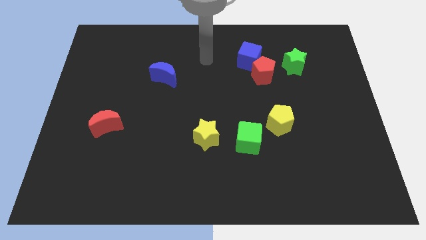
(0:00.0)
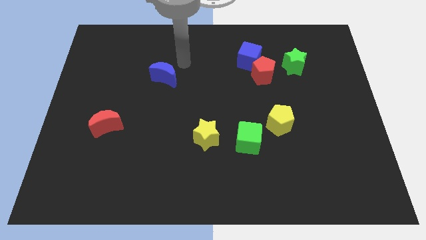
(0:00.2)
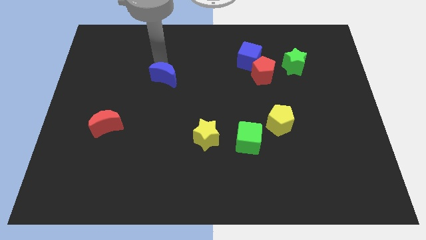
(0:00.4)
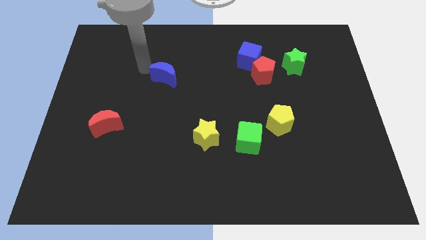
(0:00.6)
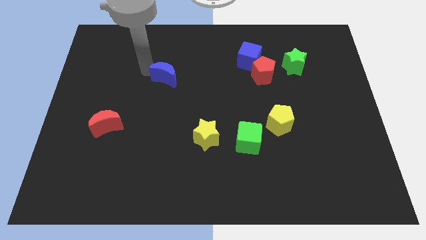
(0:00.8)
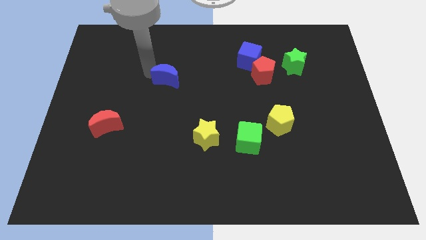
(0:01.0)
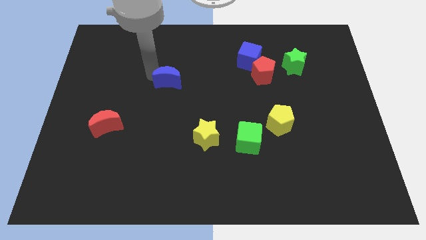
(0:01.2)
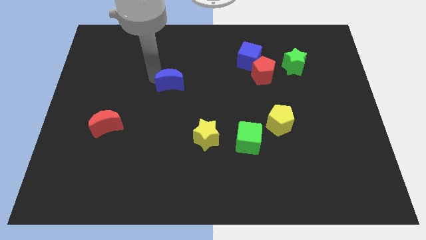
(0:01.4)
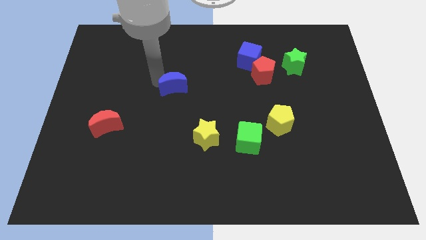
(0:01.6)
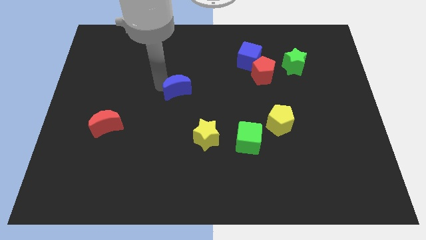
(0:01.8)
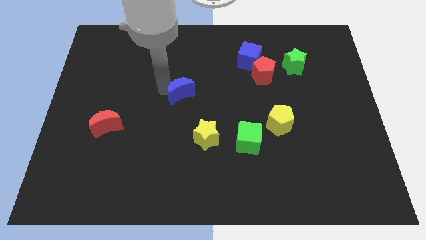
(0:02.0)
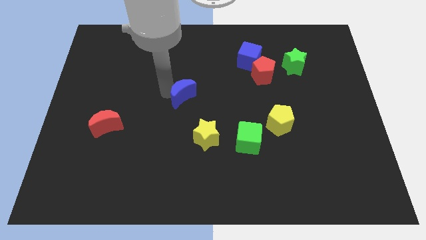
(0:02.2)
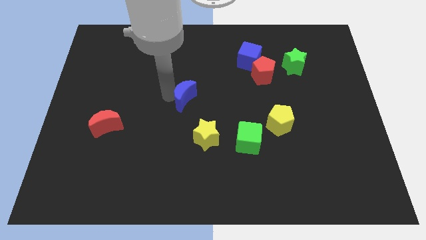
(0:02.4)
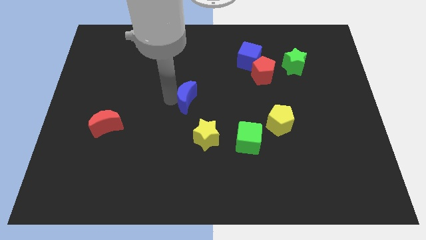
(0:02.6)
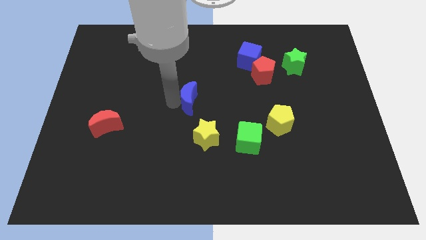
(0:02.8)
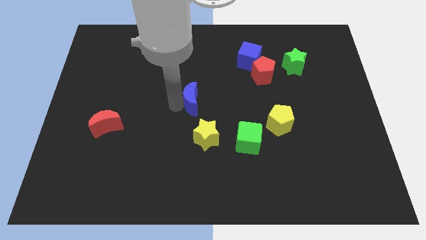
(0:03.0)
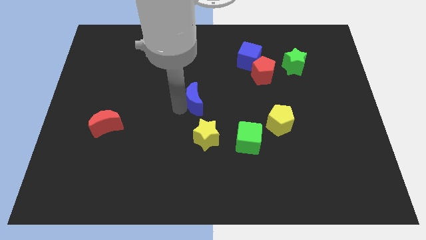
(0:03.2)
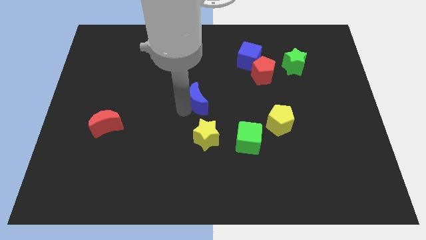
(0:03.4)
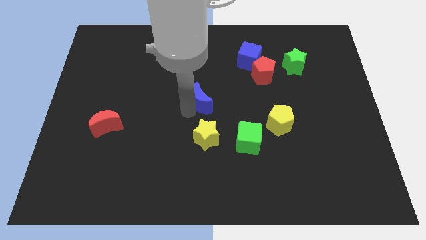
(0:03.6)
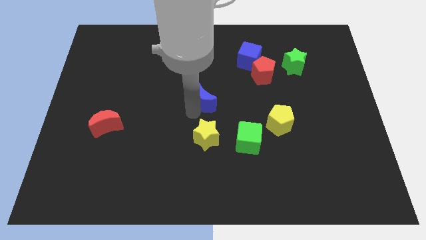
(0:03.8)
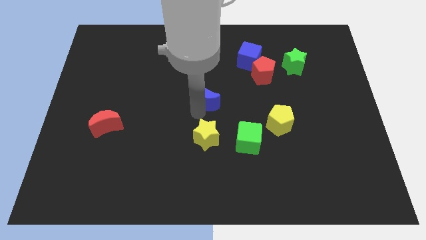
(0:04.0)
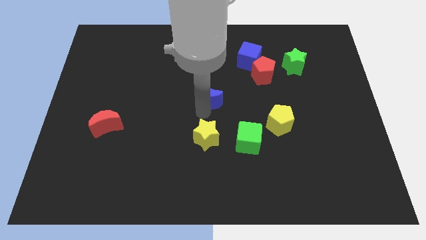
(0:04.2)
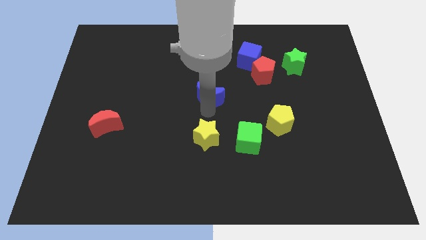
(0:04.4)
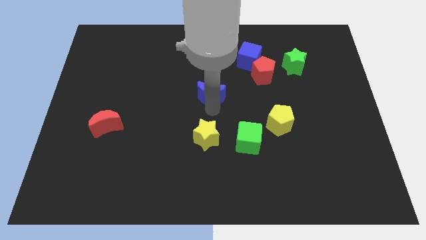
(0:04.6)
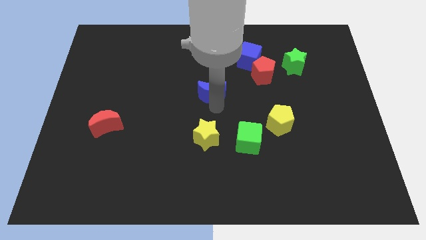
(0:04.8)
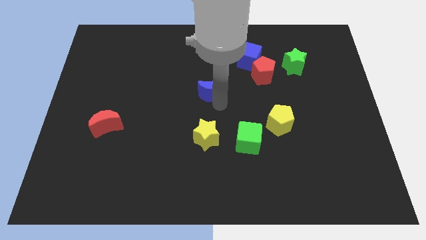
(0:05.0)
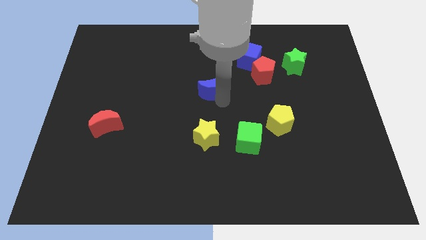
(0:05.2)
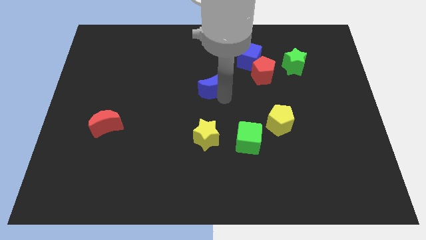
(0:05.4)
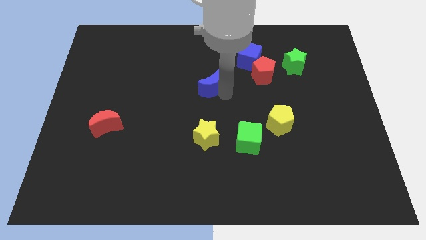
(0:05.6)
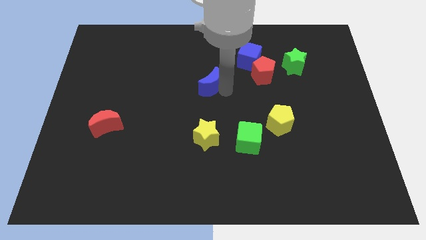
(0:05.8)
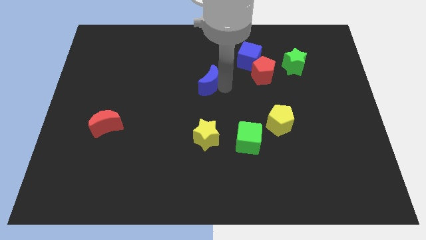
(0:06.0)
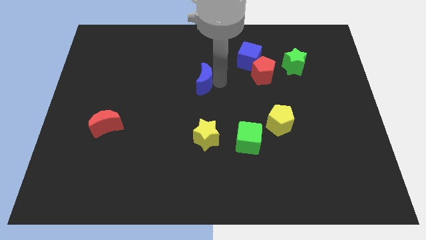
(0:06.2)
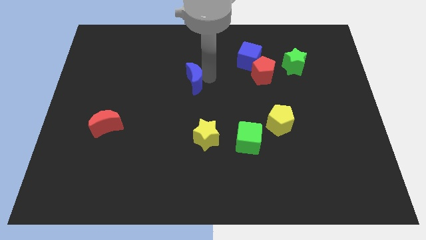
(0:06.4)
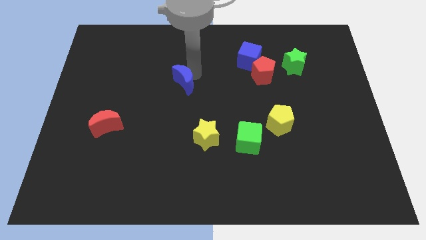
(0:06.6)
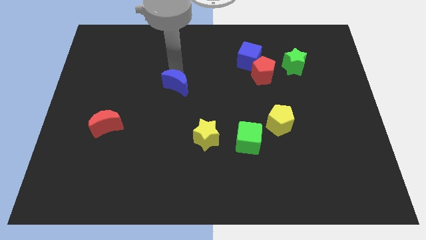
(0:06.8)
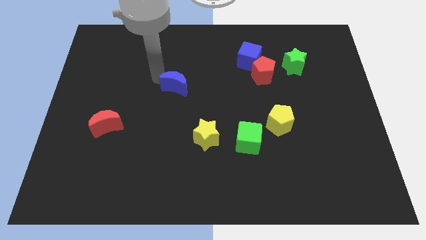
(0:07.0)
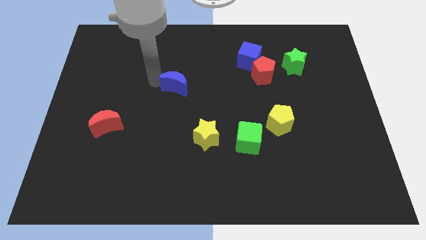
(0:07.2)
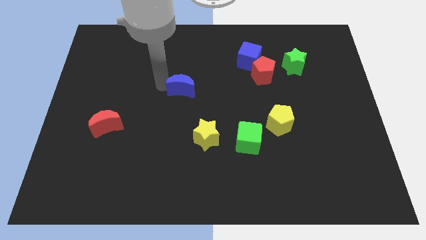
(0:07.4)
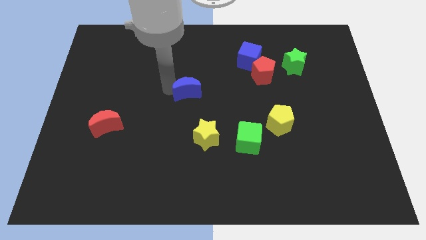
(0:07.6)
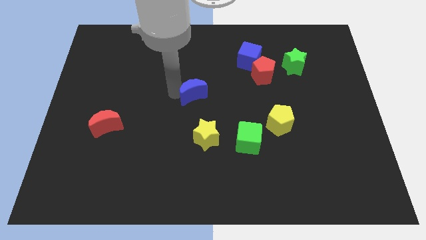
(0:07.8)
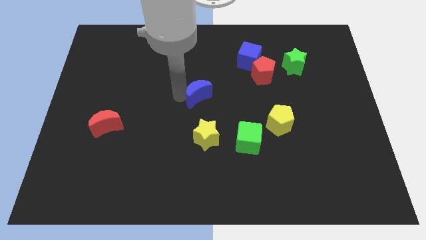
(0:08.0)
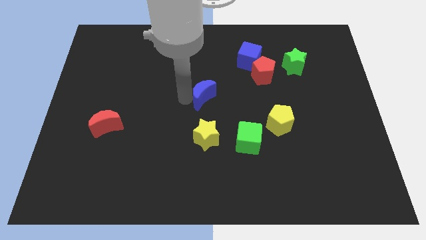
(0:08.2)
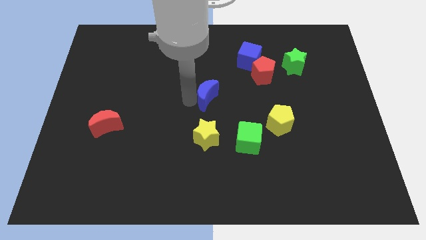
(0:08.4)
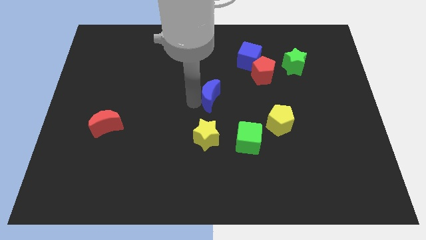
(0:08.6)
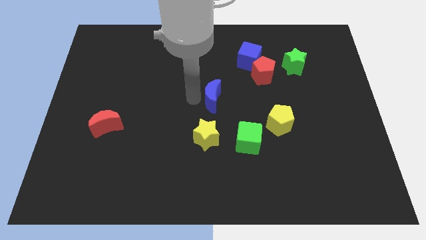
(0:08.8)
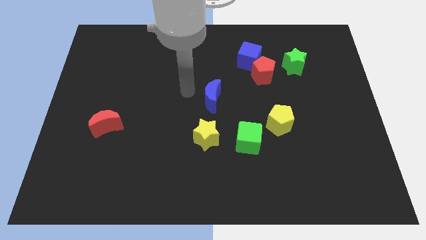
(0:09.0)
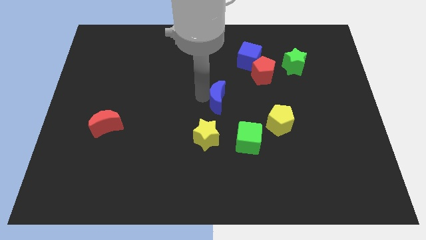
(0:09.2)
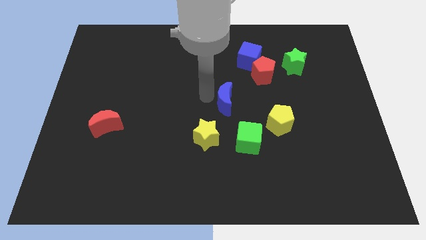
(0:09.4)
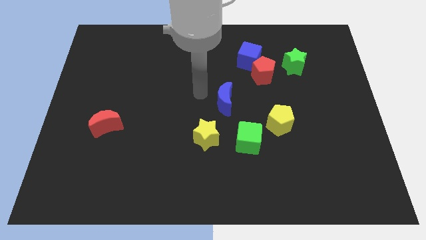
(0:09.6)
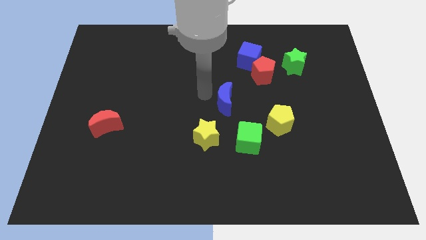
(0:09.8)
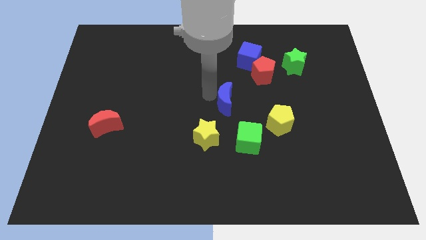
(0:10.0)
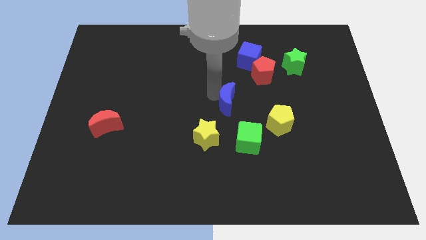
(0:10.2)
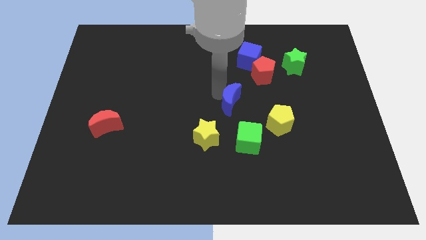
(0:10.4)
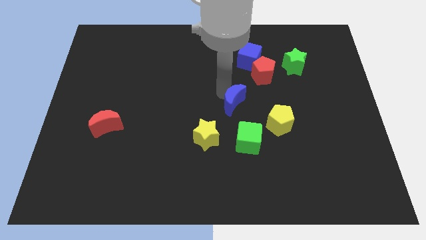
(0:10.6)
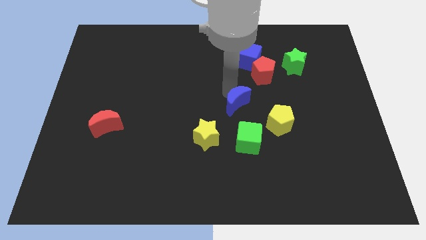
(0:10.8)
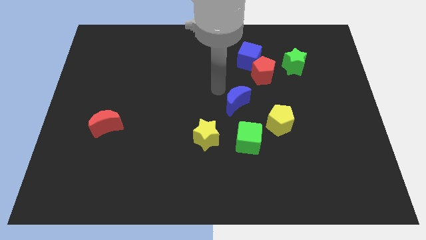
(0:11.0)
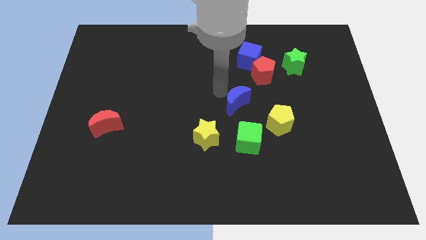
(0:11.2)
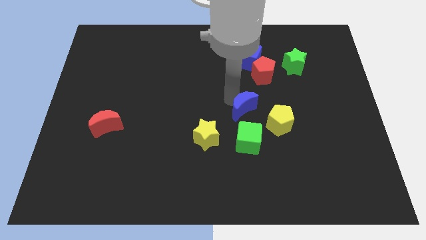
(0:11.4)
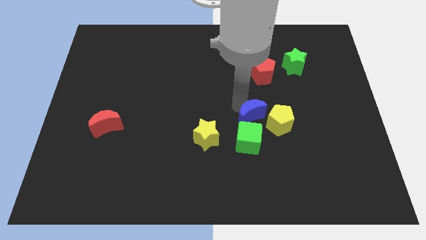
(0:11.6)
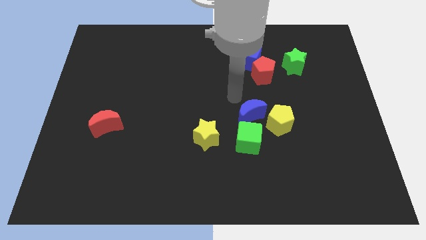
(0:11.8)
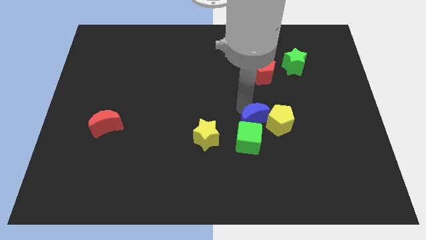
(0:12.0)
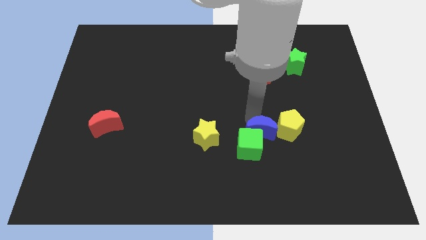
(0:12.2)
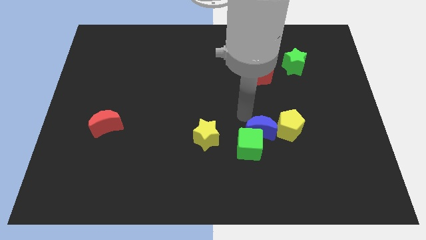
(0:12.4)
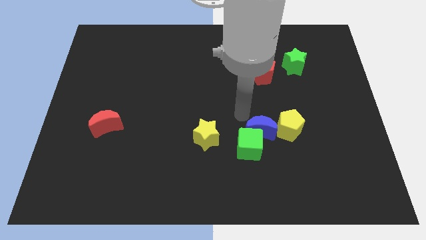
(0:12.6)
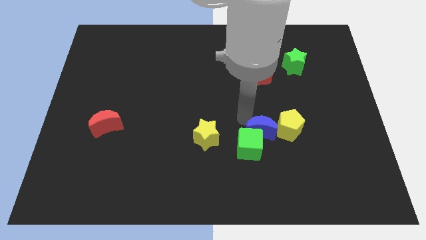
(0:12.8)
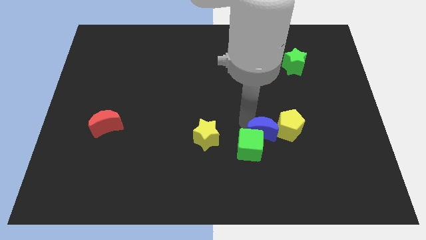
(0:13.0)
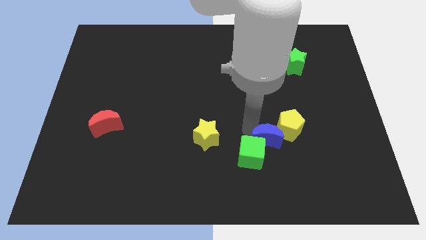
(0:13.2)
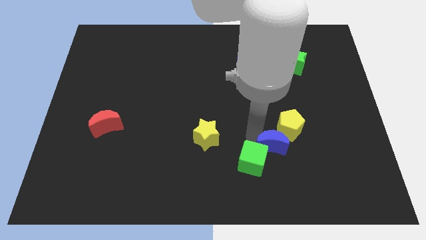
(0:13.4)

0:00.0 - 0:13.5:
slide the blue moon below the yellow pentagon

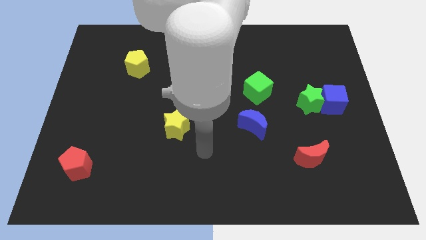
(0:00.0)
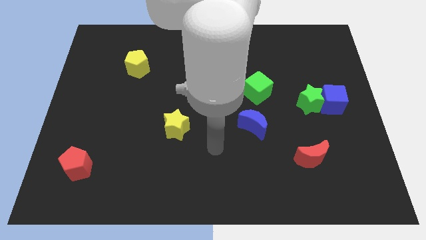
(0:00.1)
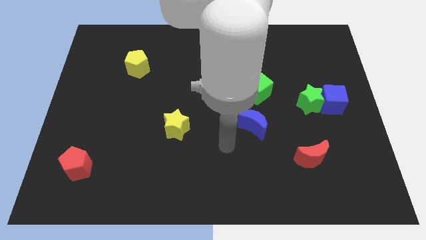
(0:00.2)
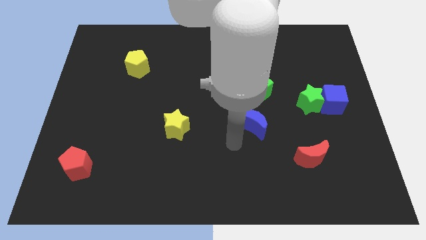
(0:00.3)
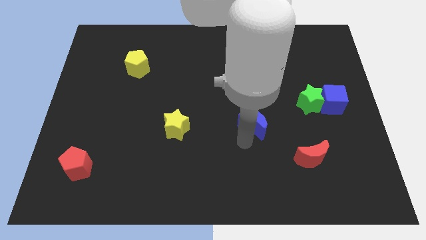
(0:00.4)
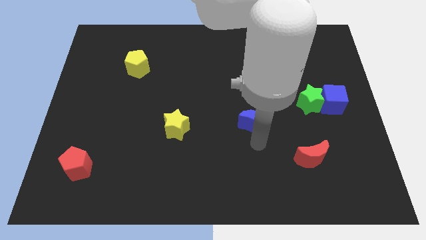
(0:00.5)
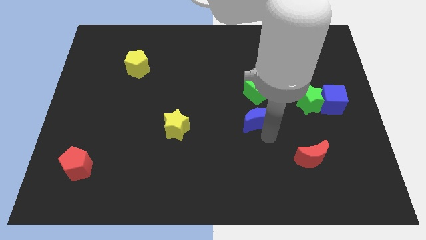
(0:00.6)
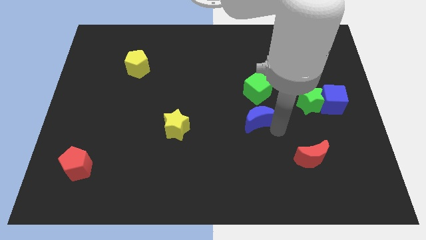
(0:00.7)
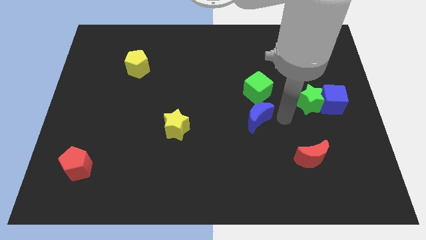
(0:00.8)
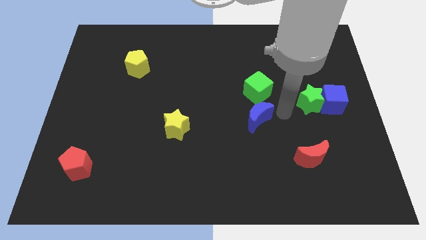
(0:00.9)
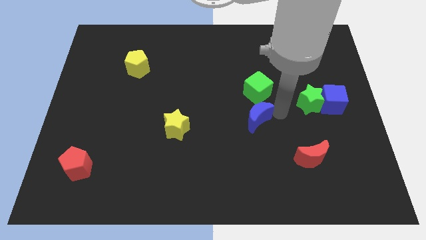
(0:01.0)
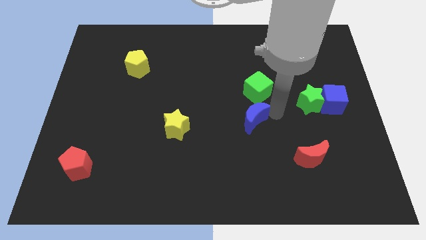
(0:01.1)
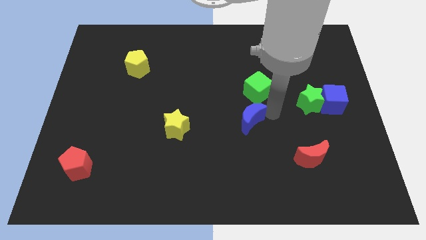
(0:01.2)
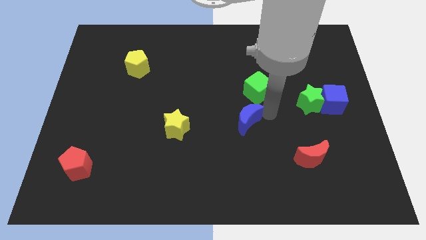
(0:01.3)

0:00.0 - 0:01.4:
move the blue moon just right of the yellow star
